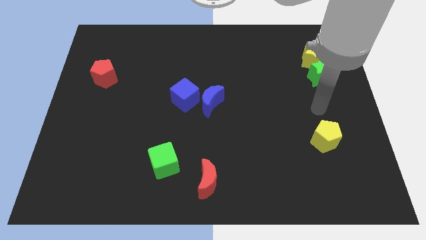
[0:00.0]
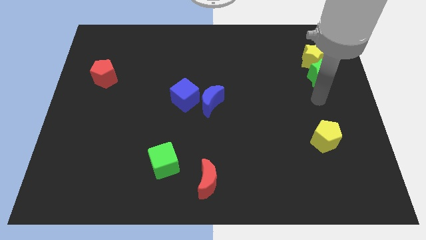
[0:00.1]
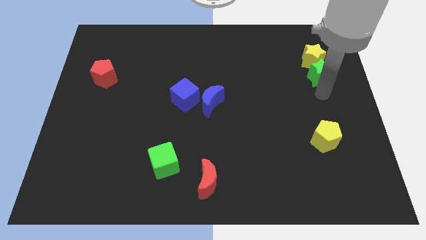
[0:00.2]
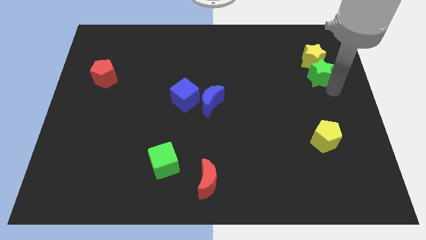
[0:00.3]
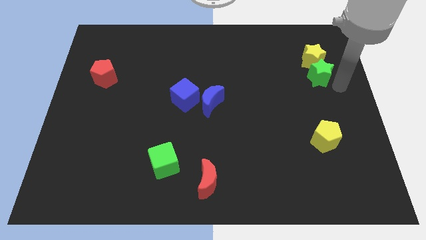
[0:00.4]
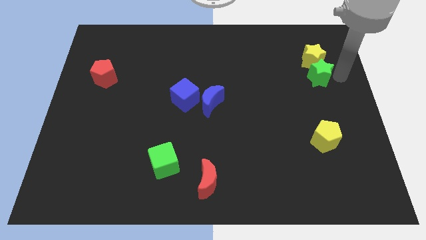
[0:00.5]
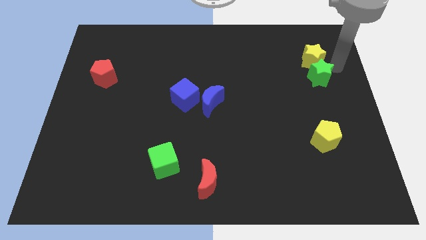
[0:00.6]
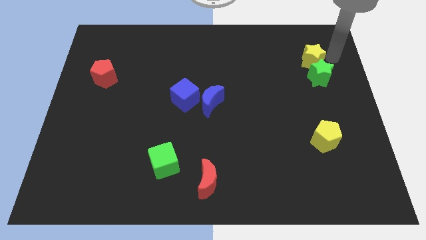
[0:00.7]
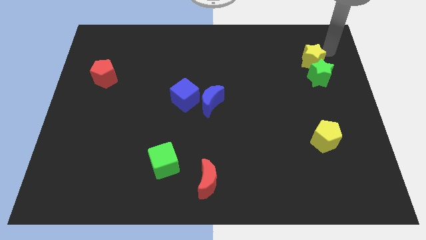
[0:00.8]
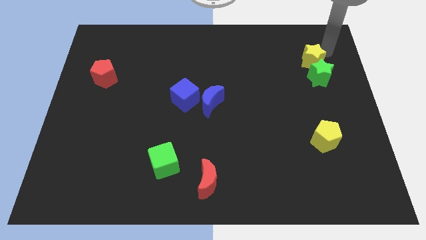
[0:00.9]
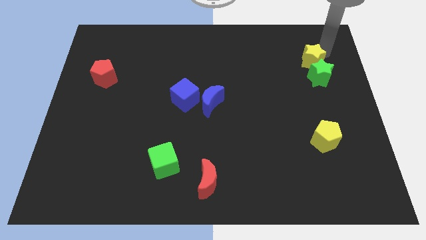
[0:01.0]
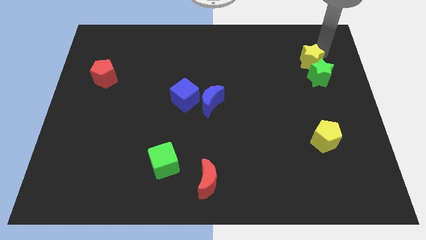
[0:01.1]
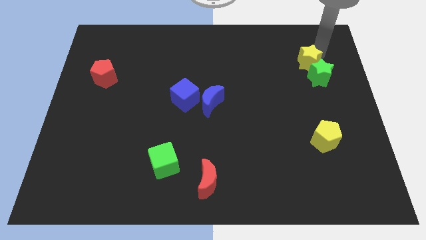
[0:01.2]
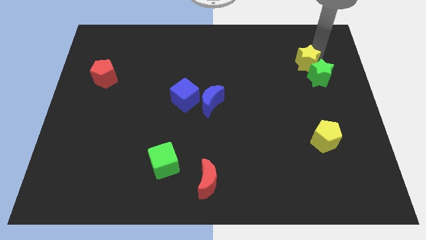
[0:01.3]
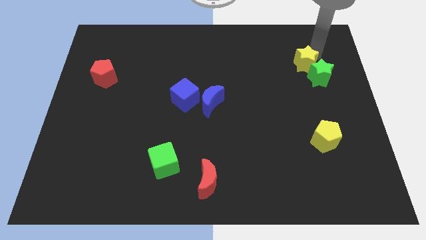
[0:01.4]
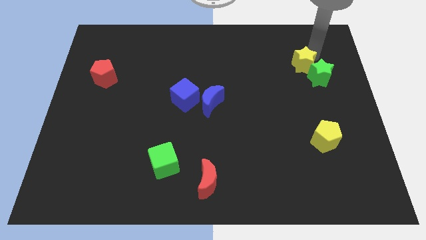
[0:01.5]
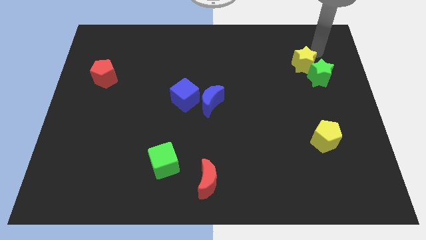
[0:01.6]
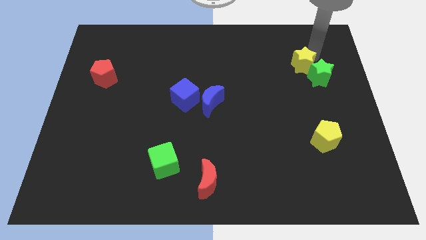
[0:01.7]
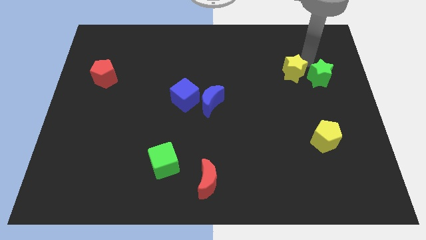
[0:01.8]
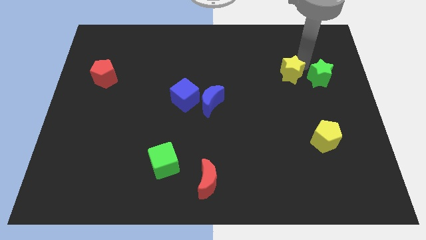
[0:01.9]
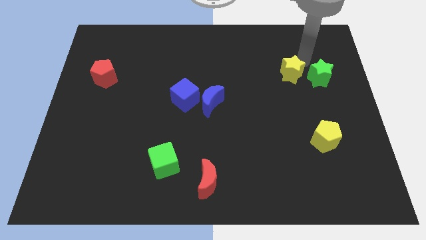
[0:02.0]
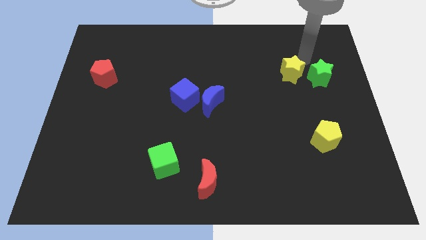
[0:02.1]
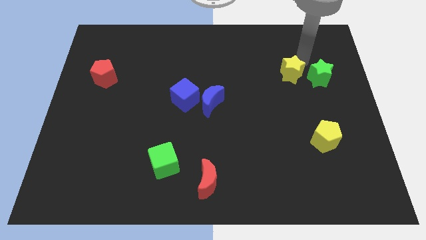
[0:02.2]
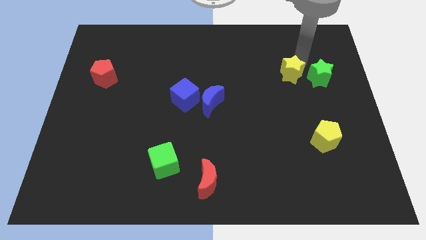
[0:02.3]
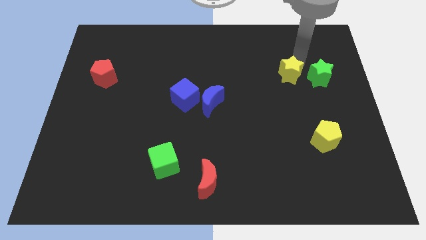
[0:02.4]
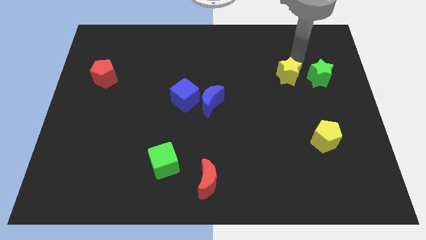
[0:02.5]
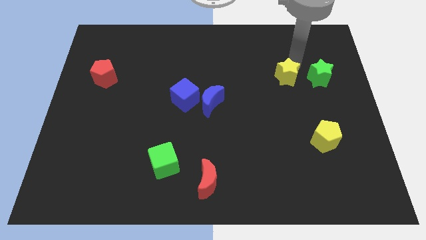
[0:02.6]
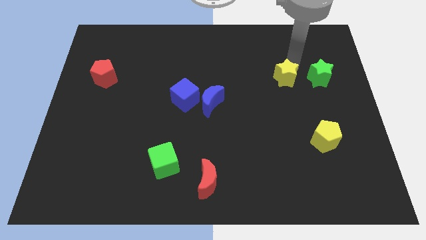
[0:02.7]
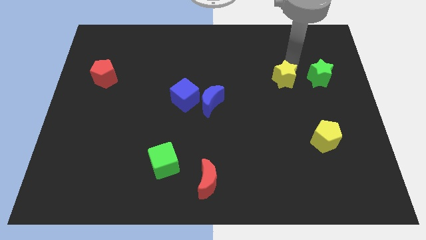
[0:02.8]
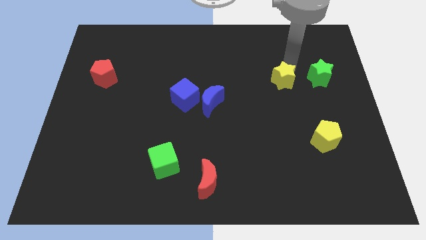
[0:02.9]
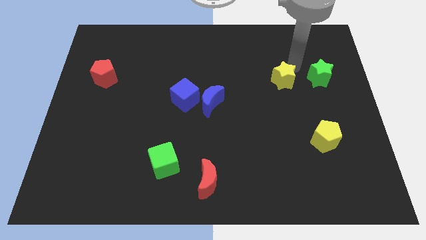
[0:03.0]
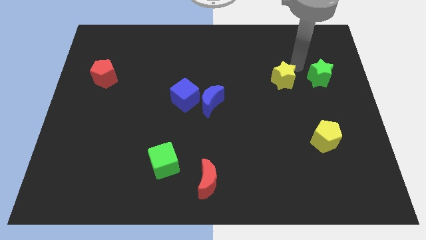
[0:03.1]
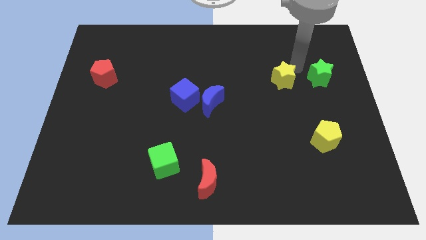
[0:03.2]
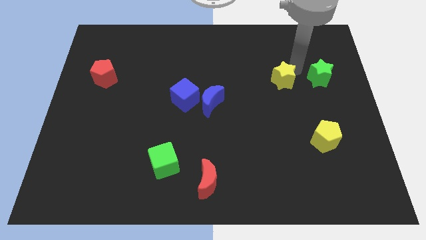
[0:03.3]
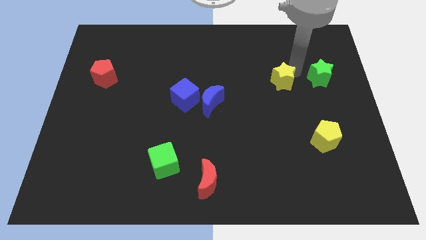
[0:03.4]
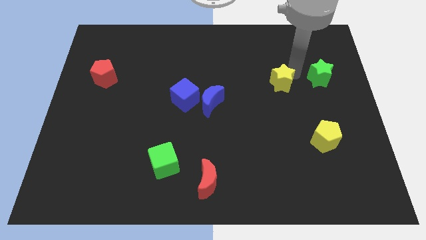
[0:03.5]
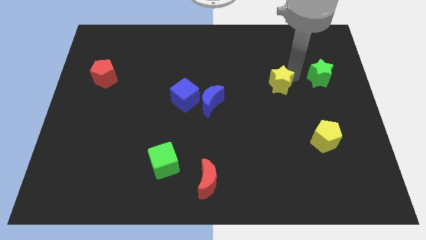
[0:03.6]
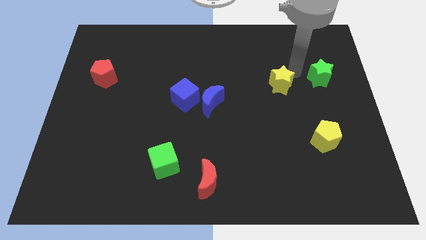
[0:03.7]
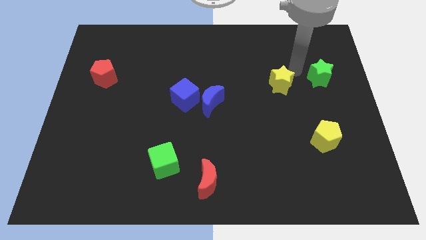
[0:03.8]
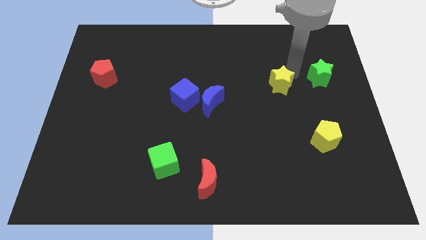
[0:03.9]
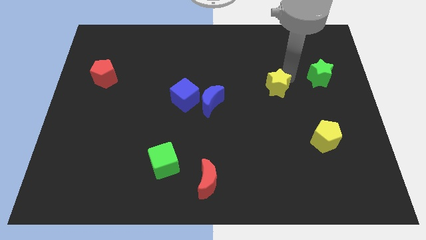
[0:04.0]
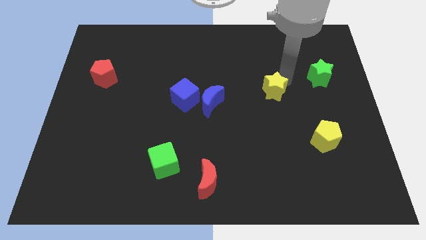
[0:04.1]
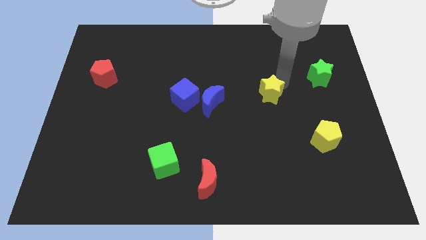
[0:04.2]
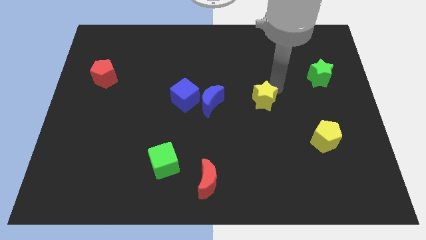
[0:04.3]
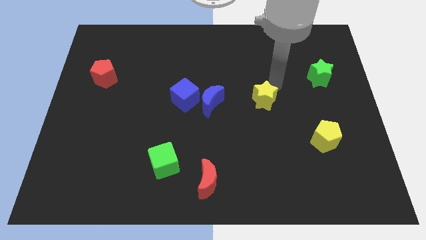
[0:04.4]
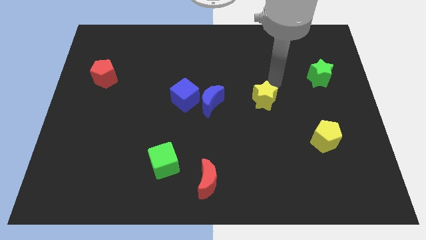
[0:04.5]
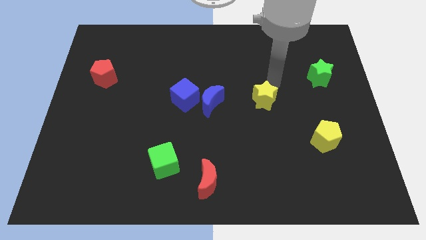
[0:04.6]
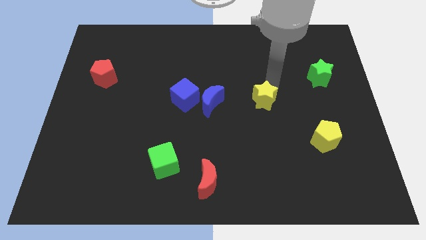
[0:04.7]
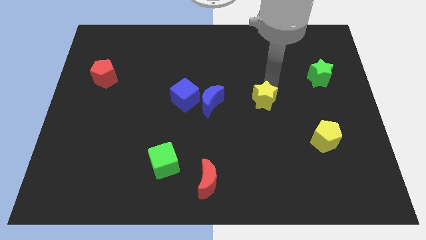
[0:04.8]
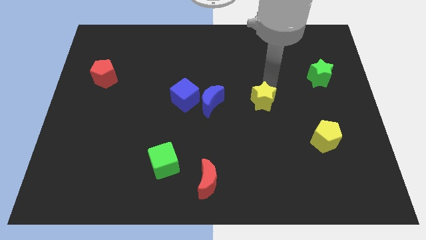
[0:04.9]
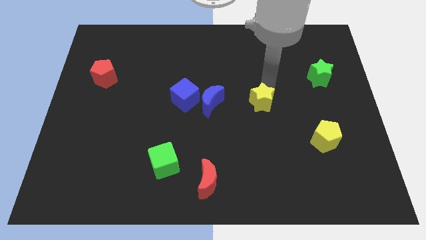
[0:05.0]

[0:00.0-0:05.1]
move the yellow star down and left diagonally

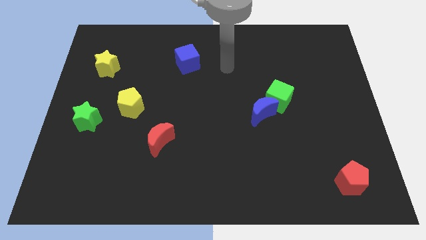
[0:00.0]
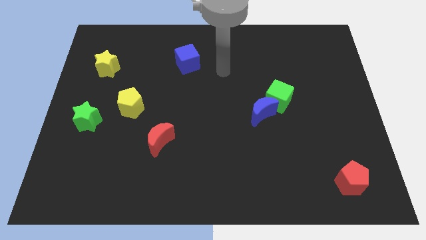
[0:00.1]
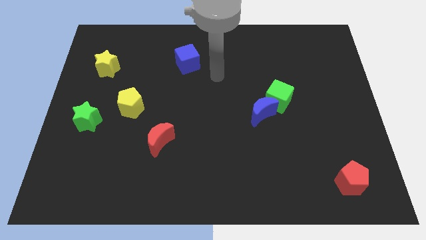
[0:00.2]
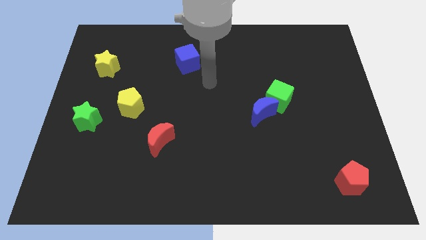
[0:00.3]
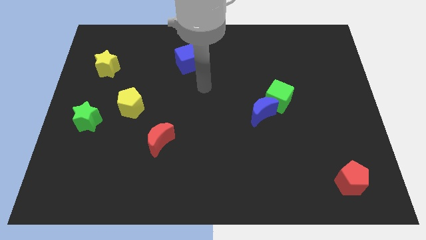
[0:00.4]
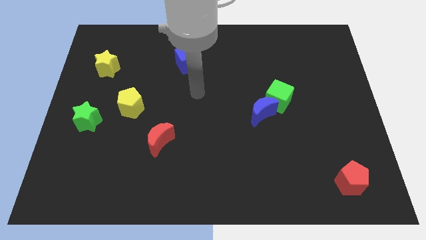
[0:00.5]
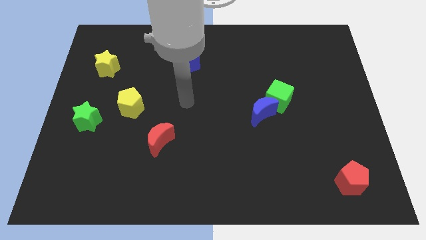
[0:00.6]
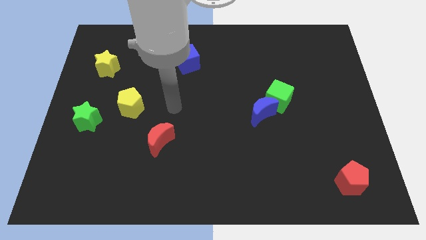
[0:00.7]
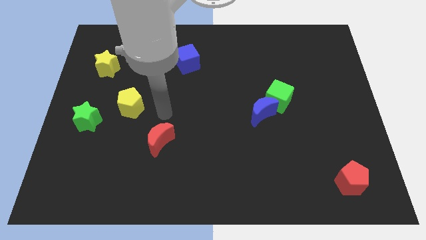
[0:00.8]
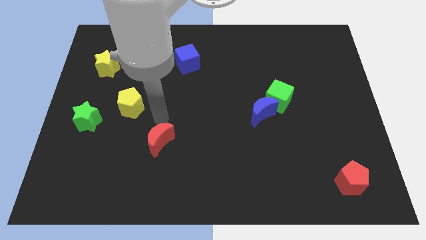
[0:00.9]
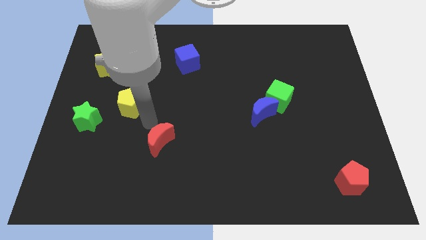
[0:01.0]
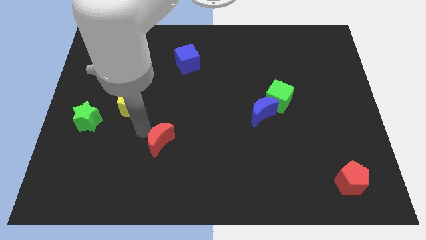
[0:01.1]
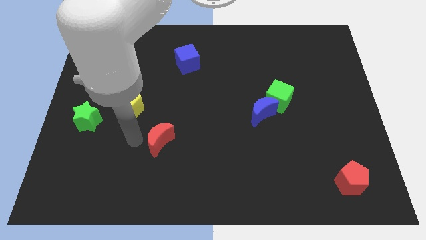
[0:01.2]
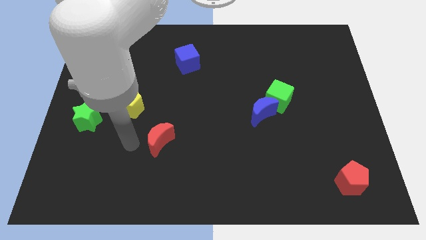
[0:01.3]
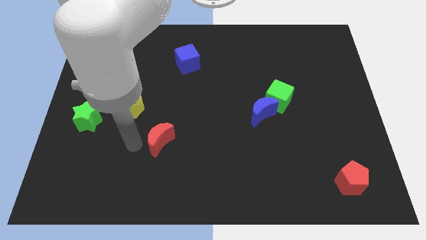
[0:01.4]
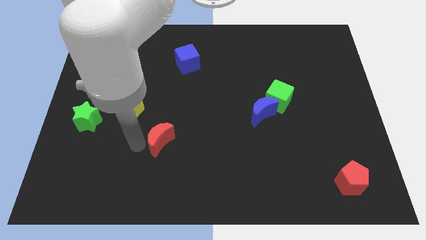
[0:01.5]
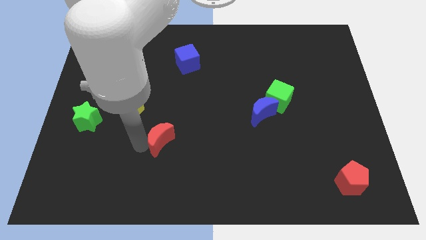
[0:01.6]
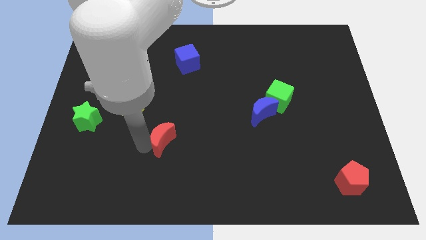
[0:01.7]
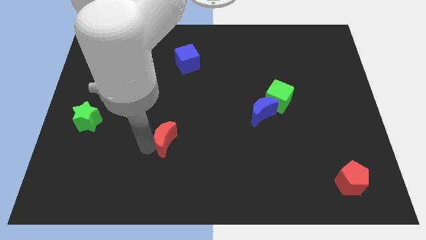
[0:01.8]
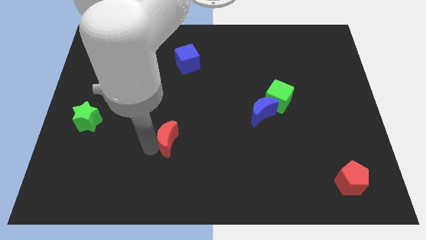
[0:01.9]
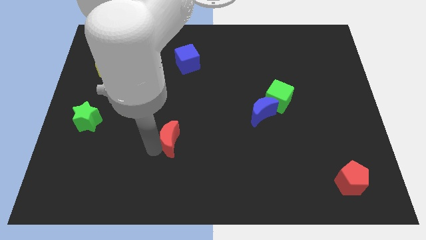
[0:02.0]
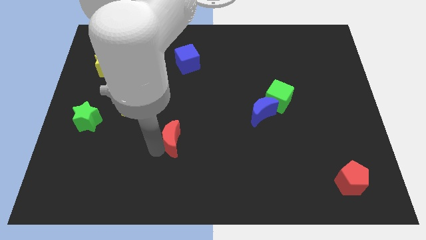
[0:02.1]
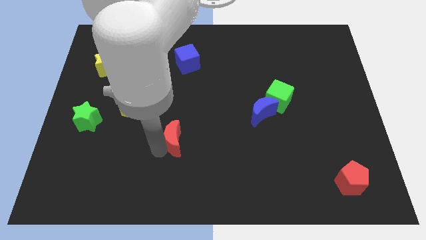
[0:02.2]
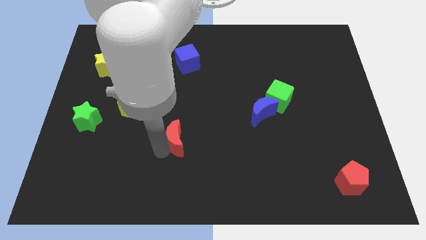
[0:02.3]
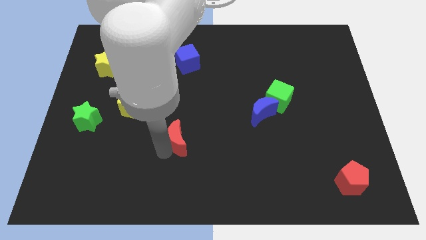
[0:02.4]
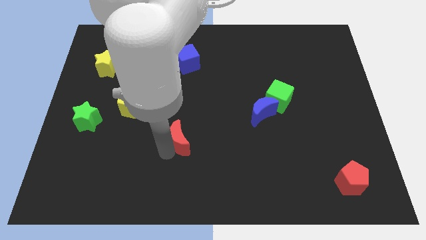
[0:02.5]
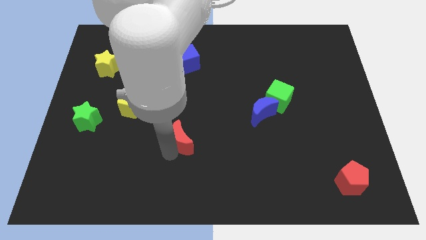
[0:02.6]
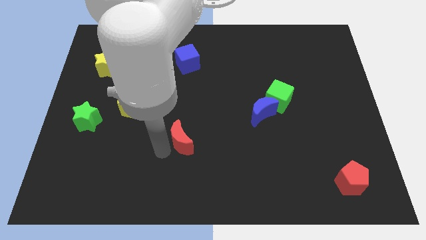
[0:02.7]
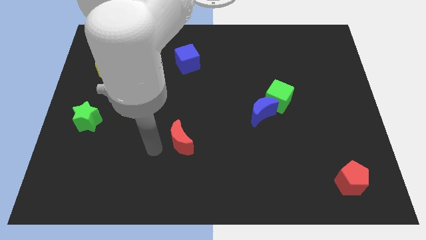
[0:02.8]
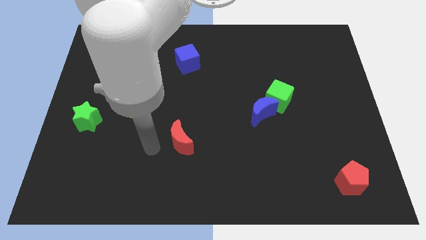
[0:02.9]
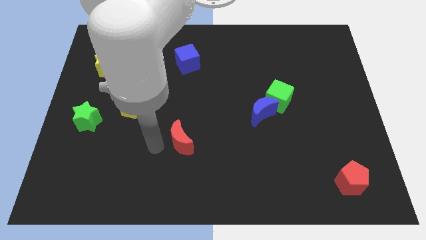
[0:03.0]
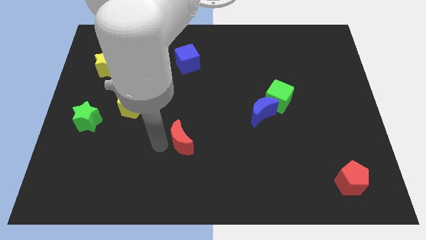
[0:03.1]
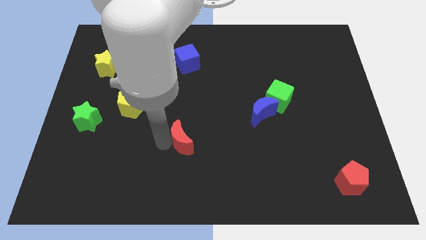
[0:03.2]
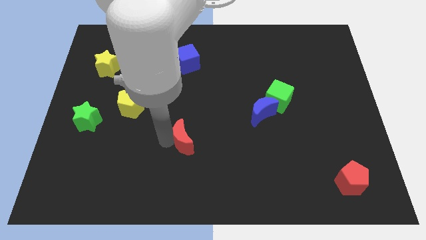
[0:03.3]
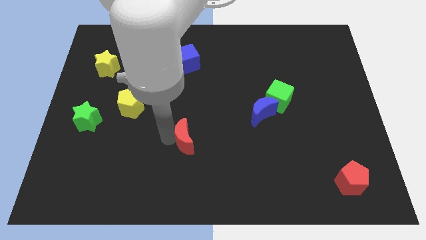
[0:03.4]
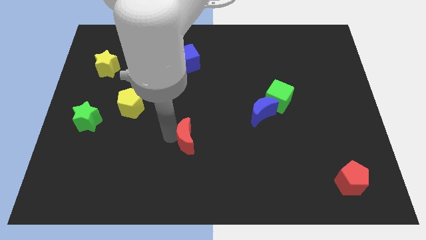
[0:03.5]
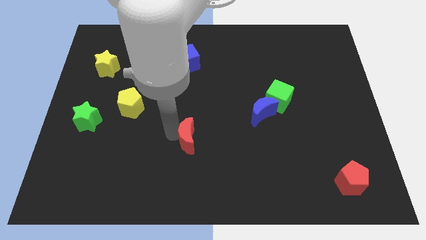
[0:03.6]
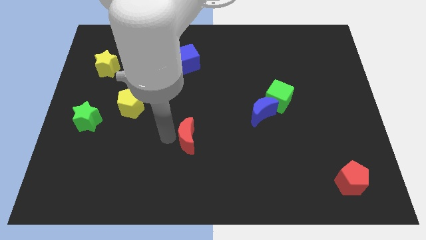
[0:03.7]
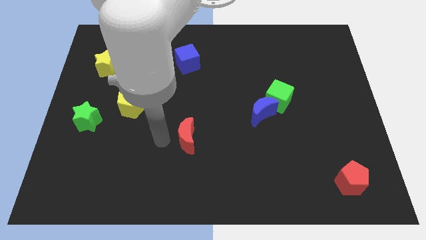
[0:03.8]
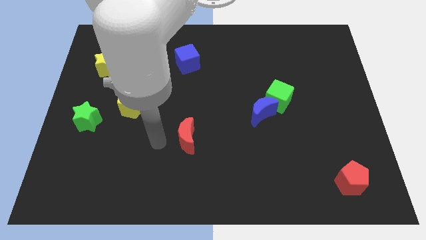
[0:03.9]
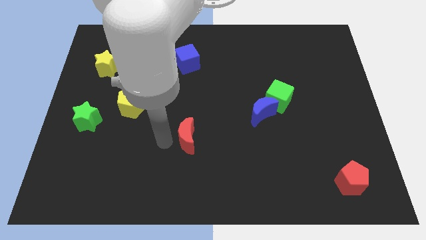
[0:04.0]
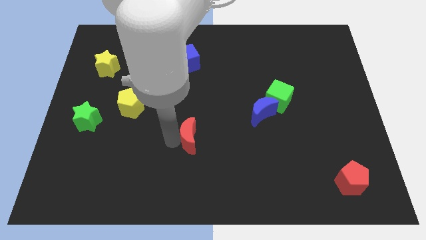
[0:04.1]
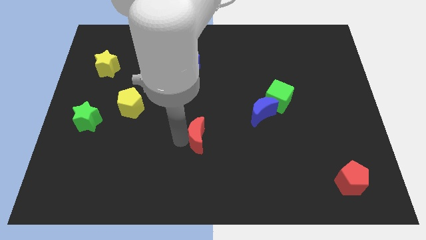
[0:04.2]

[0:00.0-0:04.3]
slide the red moon somewhat to the right
